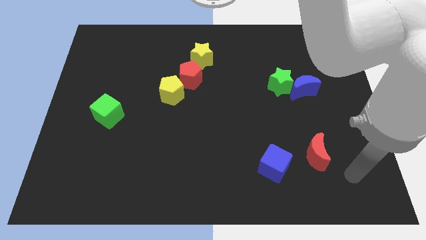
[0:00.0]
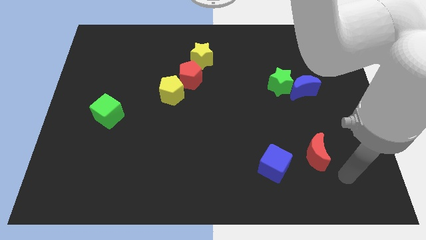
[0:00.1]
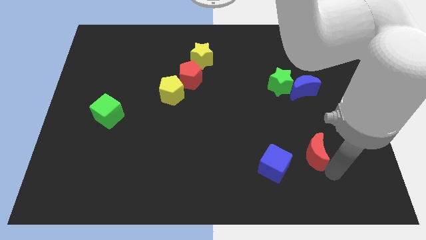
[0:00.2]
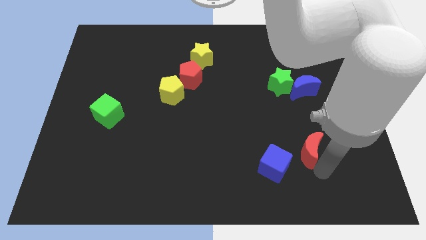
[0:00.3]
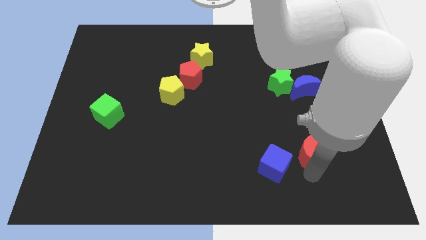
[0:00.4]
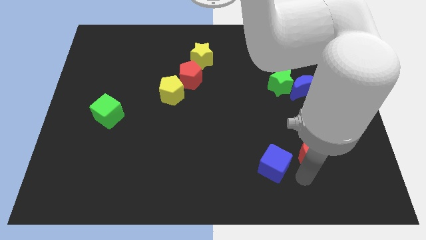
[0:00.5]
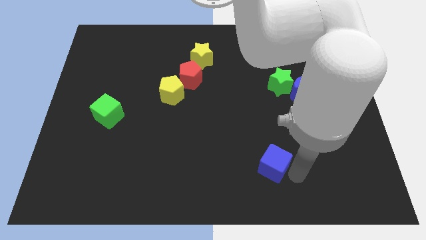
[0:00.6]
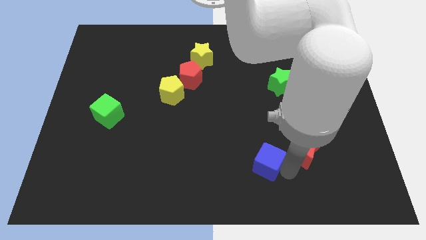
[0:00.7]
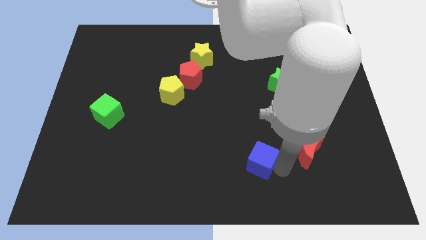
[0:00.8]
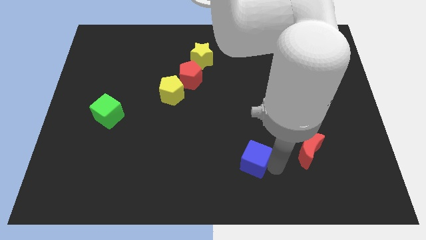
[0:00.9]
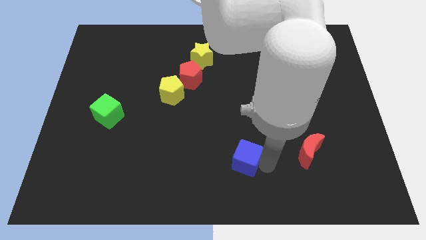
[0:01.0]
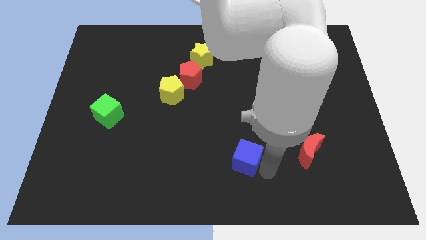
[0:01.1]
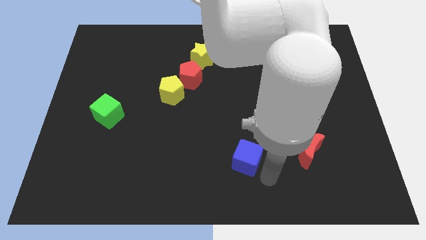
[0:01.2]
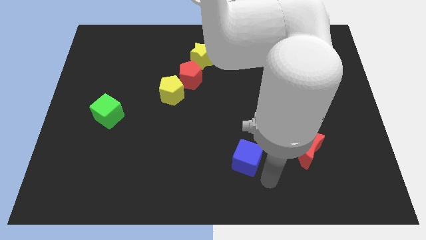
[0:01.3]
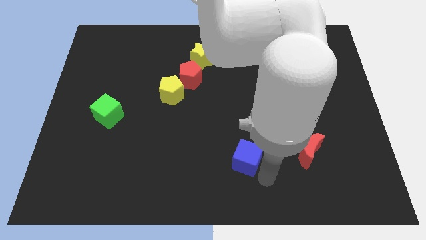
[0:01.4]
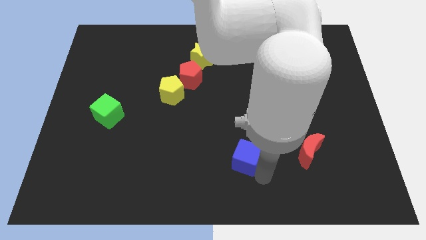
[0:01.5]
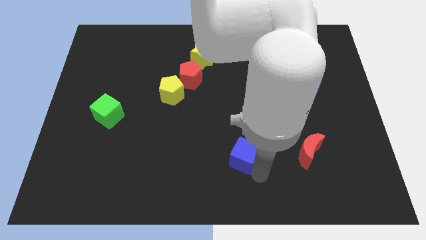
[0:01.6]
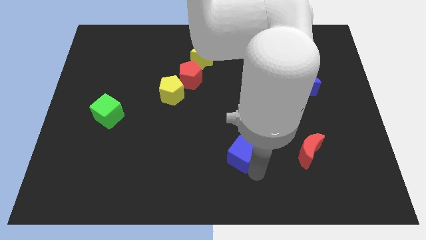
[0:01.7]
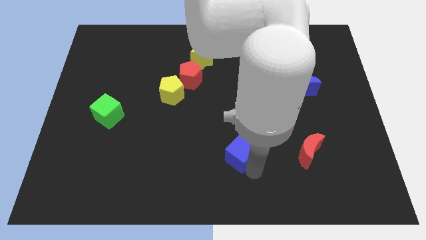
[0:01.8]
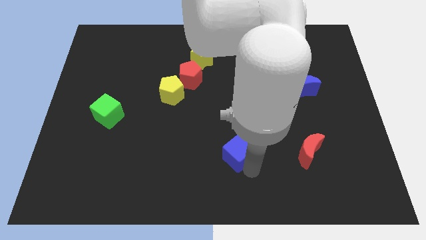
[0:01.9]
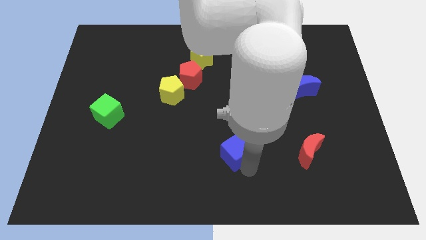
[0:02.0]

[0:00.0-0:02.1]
move the blue cube slightly upwards and left diagonally

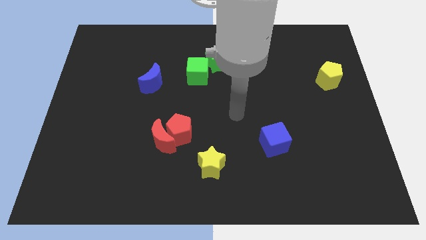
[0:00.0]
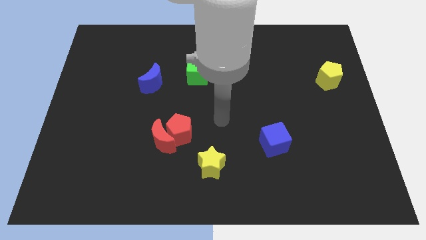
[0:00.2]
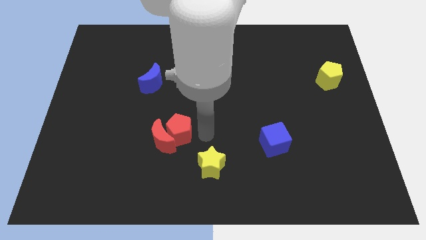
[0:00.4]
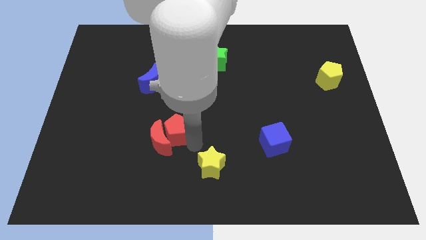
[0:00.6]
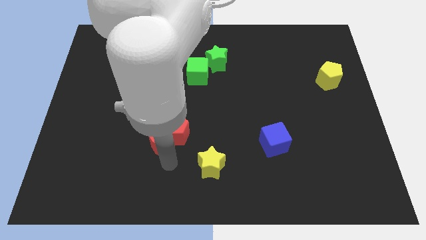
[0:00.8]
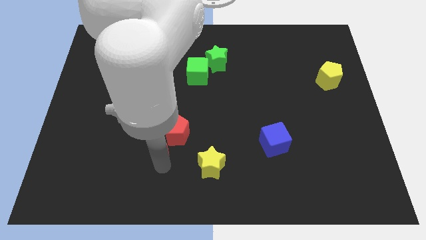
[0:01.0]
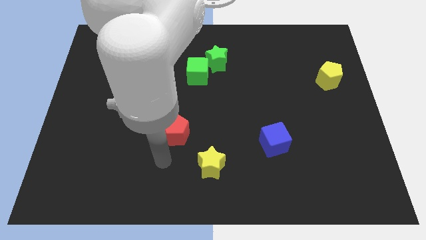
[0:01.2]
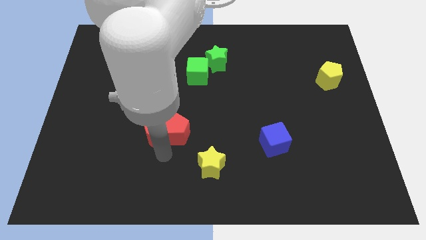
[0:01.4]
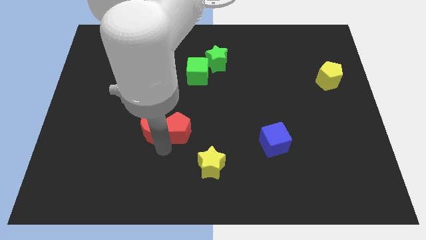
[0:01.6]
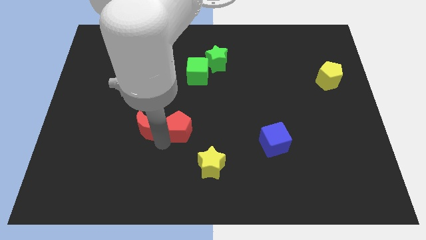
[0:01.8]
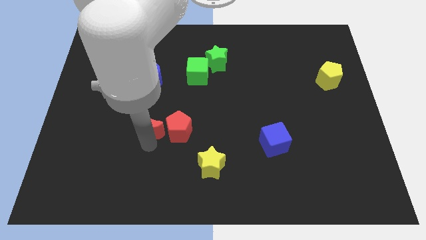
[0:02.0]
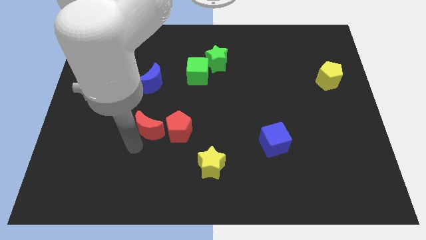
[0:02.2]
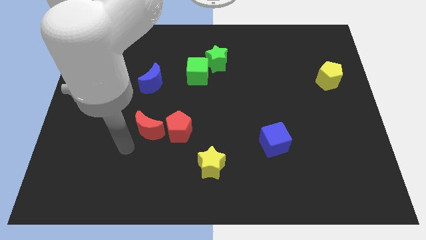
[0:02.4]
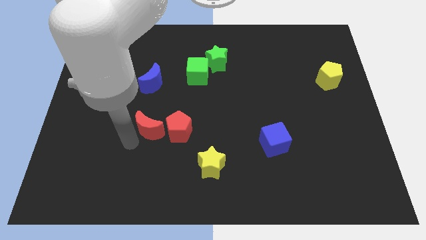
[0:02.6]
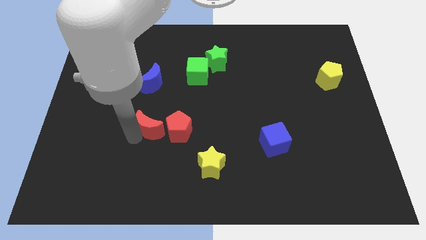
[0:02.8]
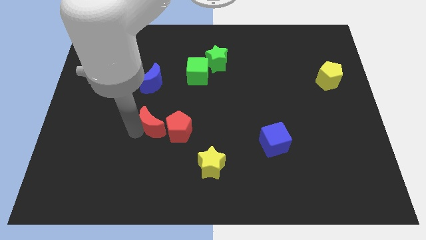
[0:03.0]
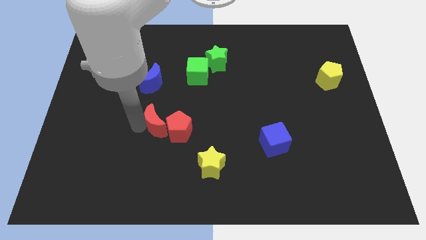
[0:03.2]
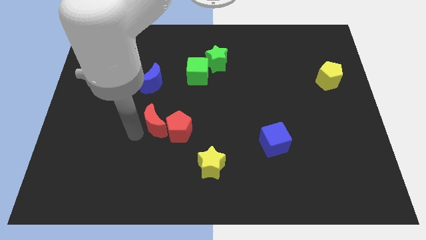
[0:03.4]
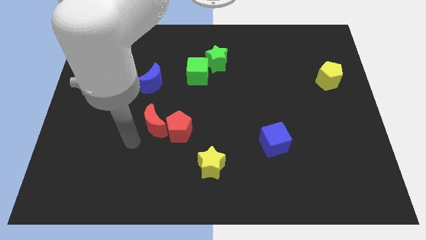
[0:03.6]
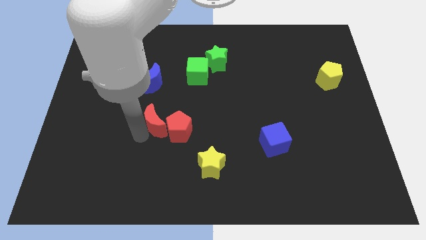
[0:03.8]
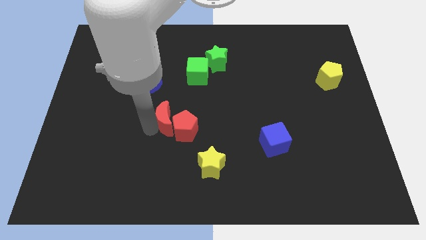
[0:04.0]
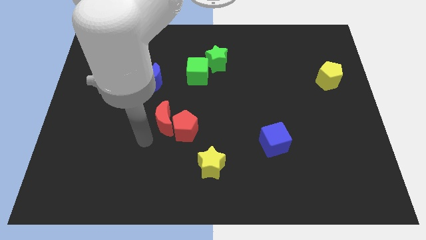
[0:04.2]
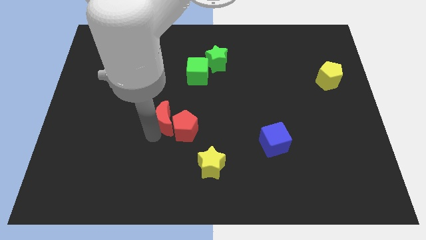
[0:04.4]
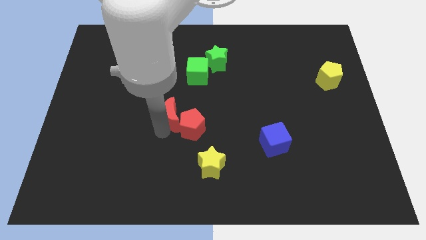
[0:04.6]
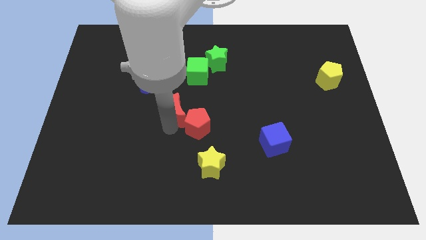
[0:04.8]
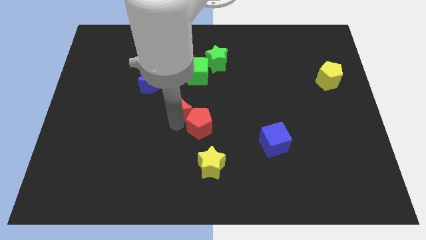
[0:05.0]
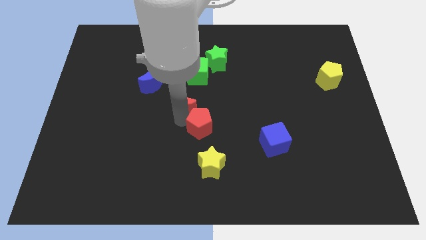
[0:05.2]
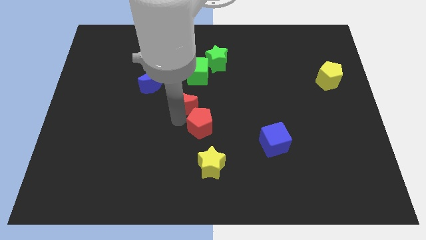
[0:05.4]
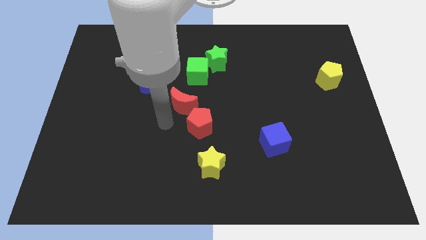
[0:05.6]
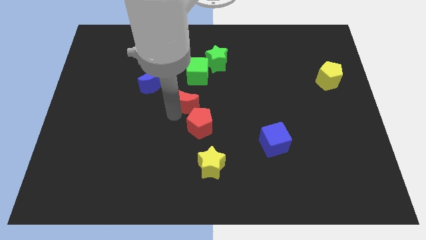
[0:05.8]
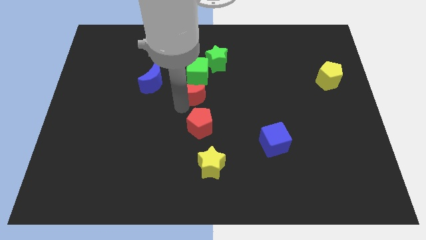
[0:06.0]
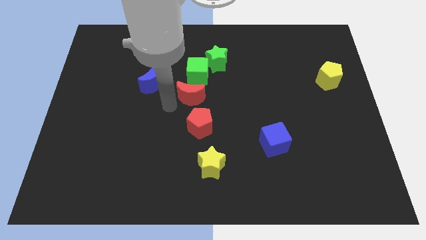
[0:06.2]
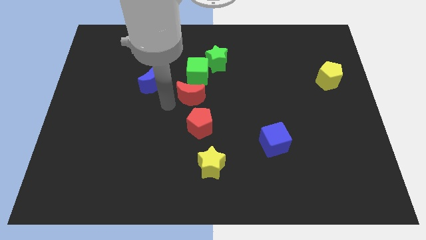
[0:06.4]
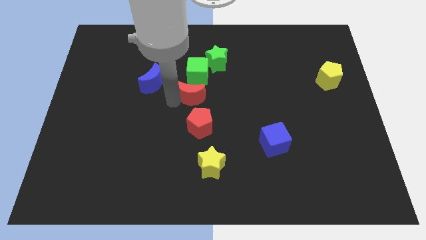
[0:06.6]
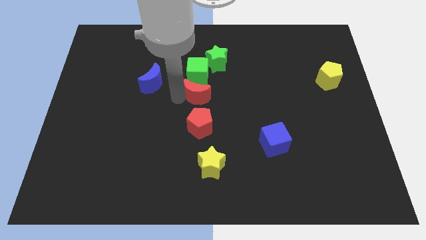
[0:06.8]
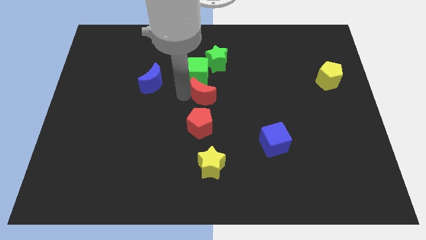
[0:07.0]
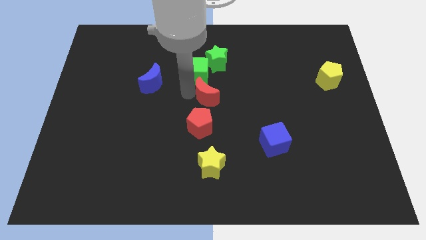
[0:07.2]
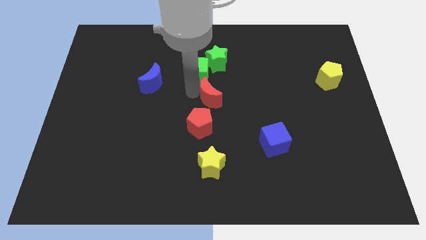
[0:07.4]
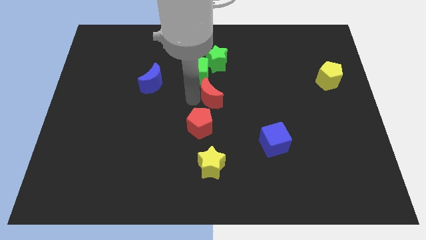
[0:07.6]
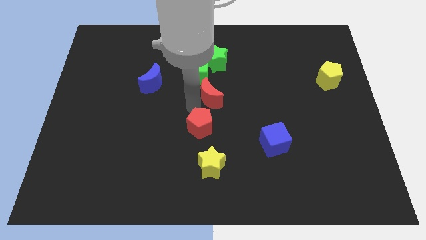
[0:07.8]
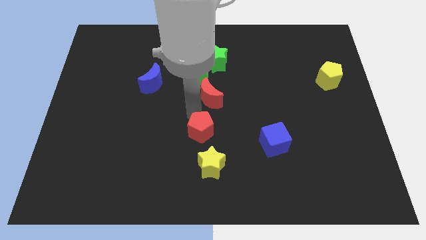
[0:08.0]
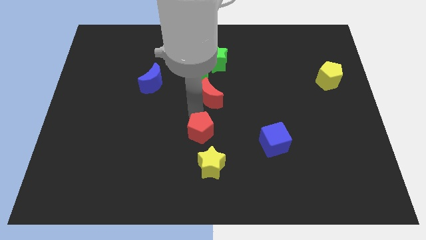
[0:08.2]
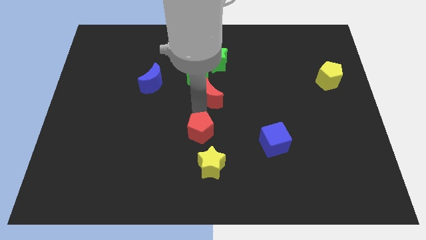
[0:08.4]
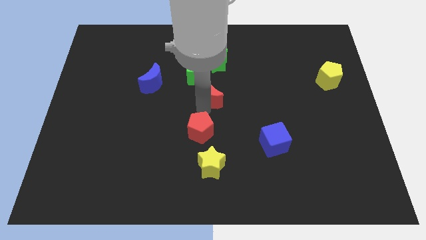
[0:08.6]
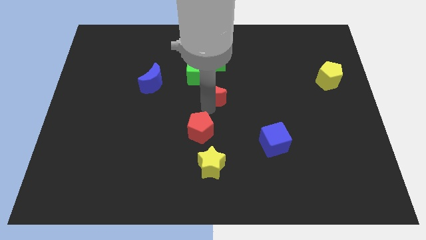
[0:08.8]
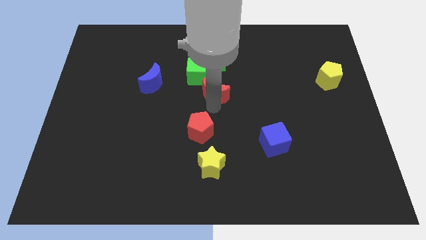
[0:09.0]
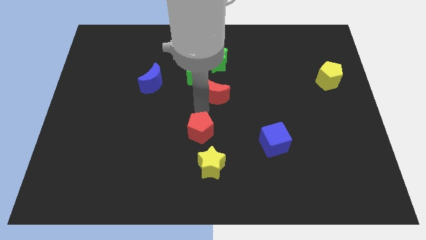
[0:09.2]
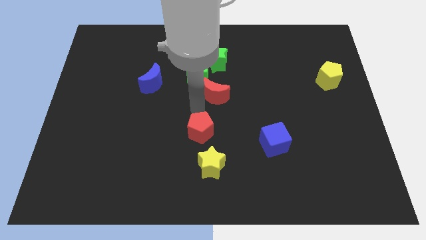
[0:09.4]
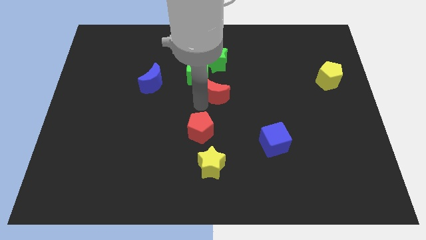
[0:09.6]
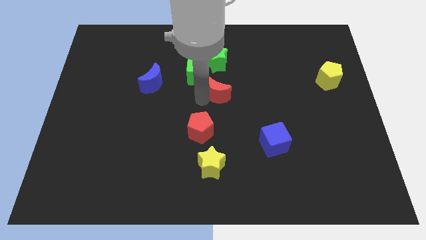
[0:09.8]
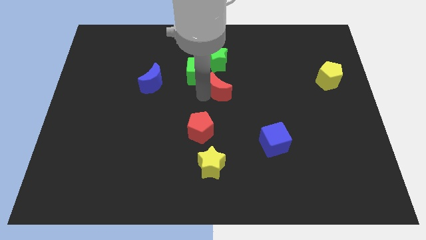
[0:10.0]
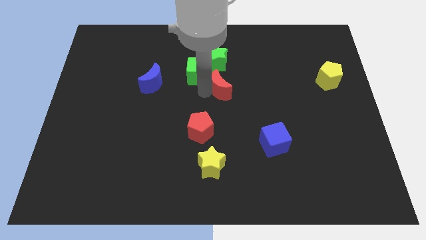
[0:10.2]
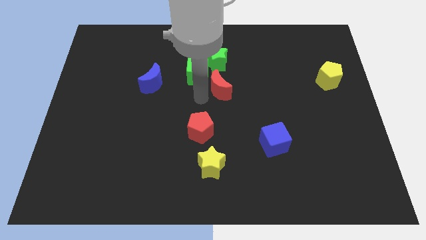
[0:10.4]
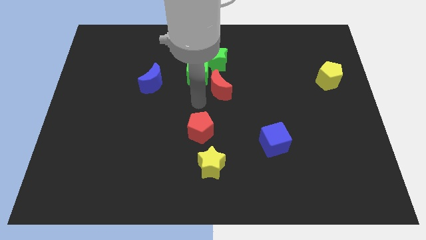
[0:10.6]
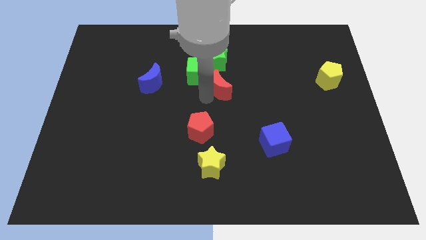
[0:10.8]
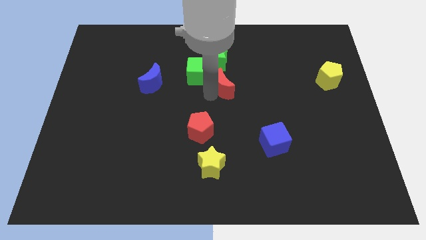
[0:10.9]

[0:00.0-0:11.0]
push the red moon up and to the right diagonally

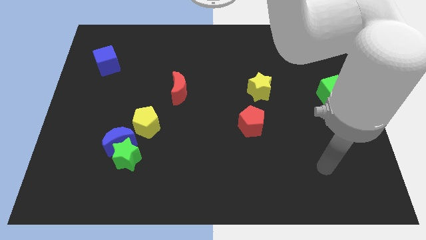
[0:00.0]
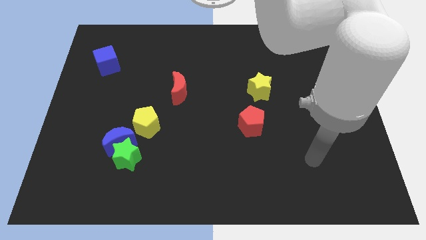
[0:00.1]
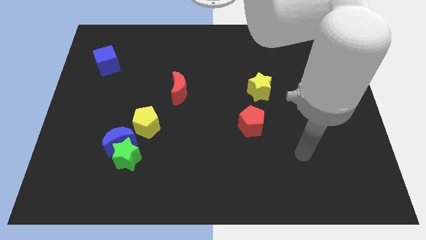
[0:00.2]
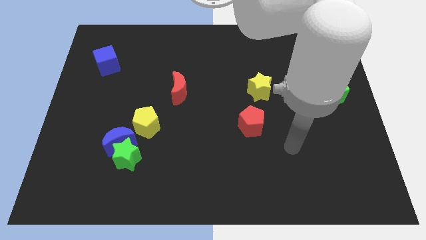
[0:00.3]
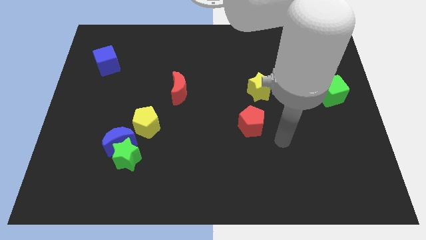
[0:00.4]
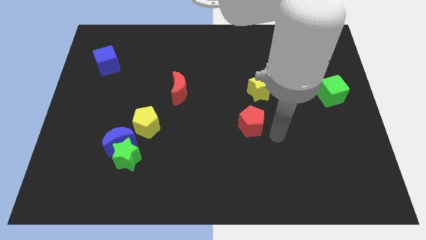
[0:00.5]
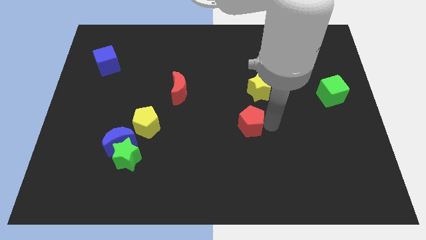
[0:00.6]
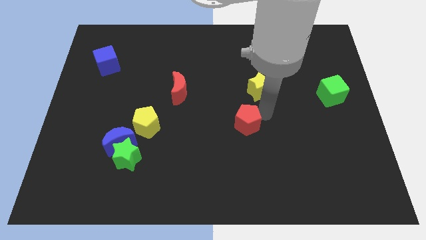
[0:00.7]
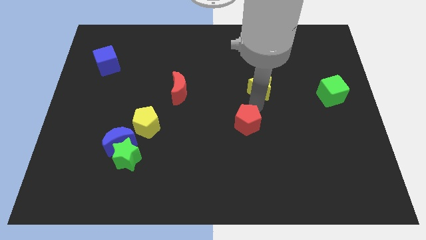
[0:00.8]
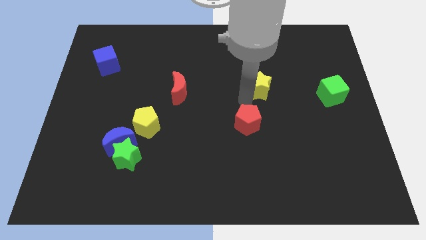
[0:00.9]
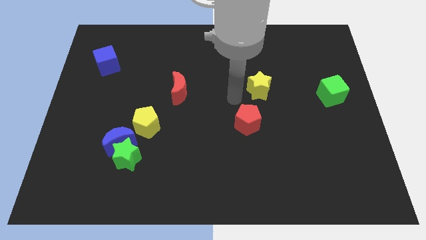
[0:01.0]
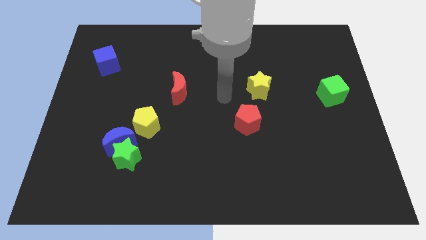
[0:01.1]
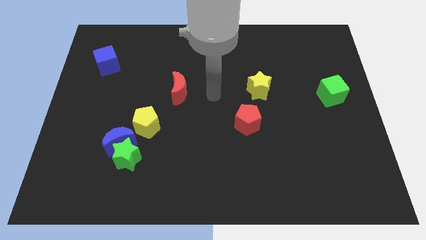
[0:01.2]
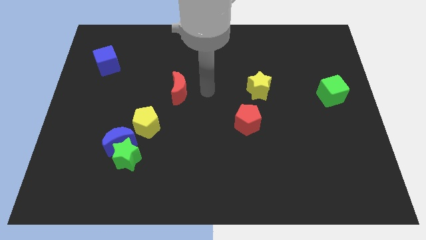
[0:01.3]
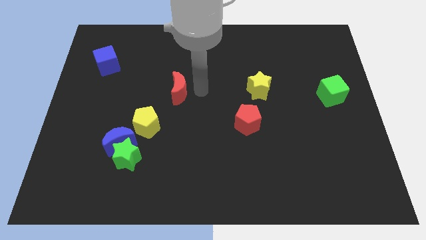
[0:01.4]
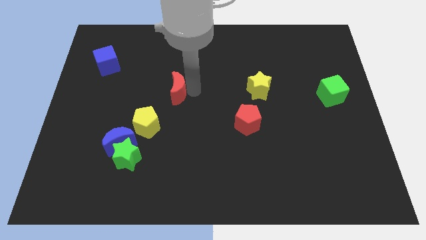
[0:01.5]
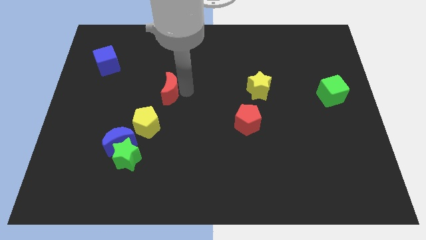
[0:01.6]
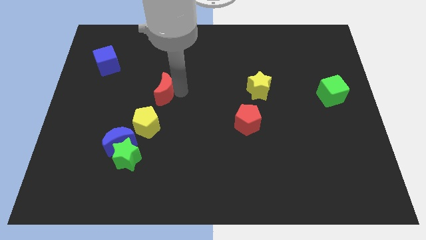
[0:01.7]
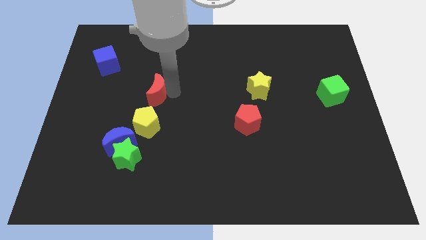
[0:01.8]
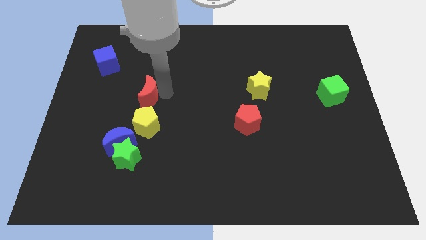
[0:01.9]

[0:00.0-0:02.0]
move the red moon a little to the left
